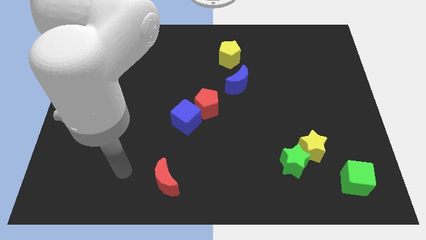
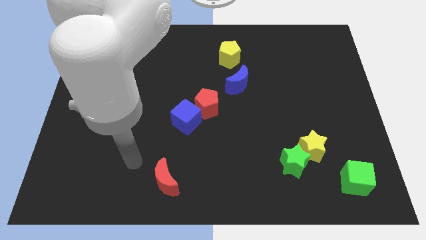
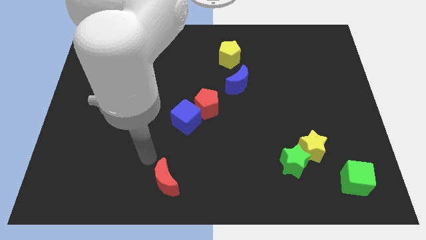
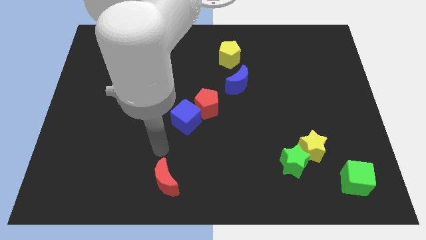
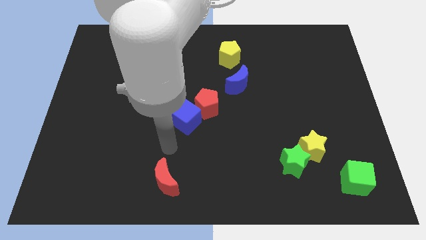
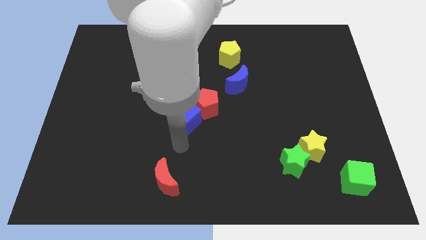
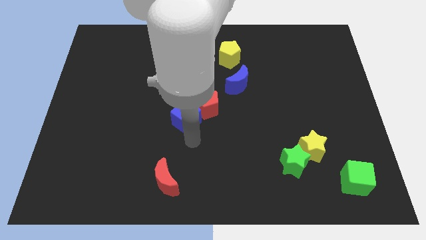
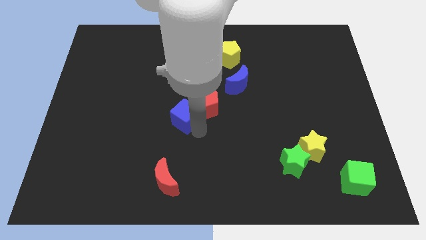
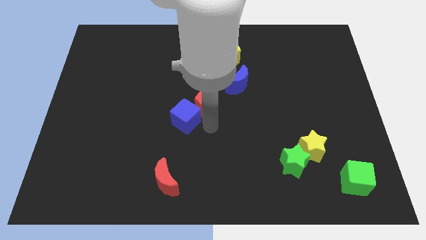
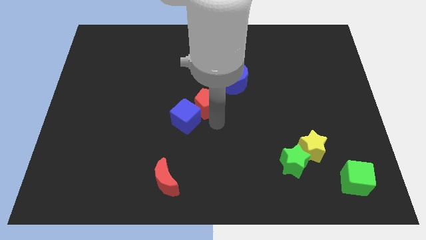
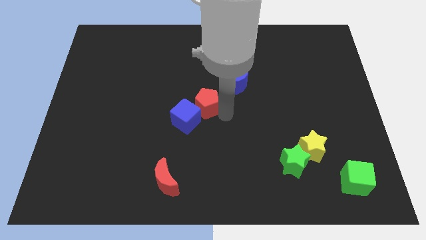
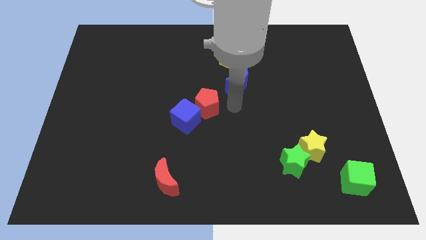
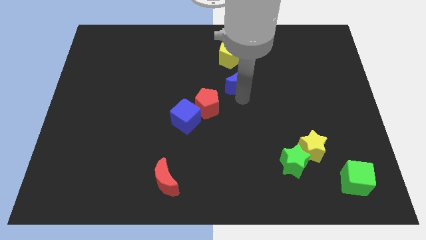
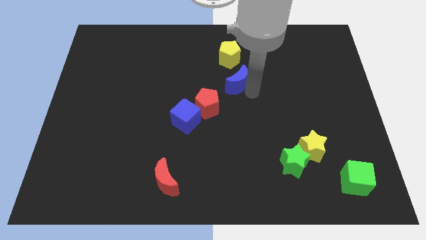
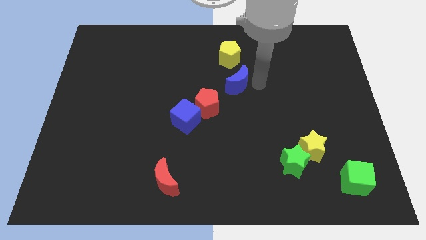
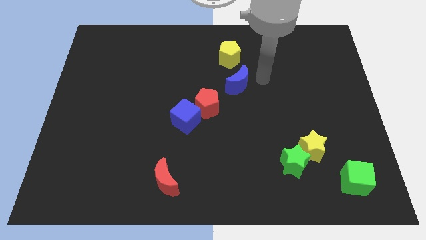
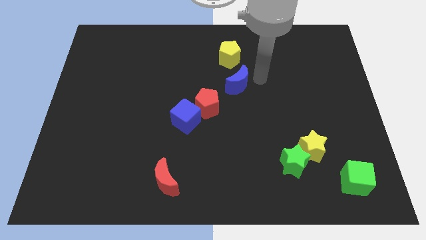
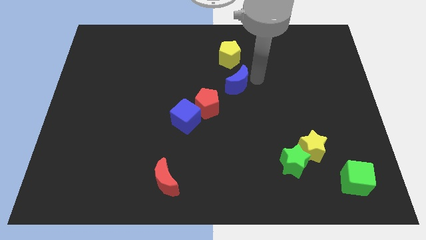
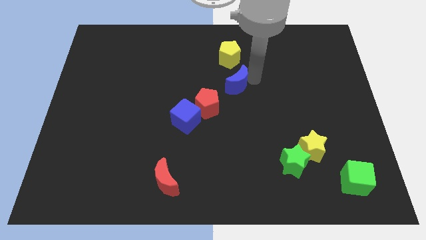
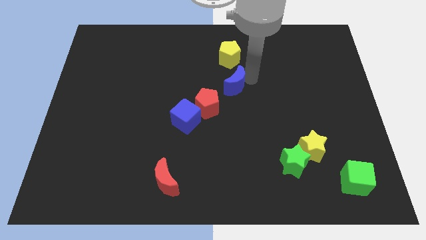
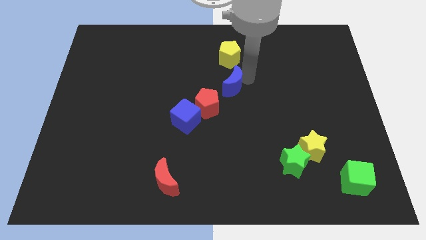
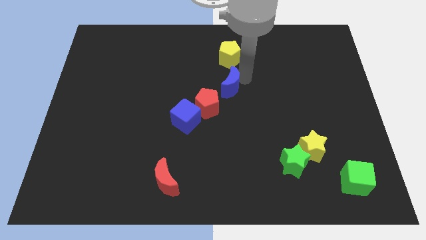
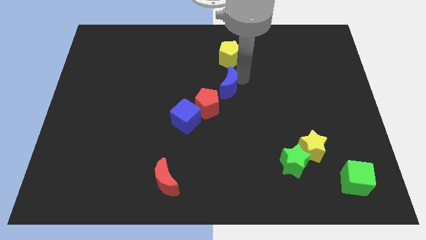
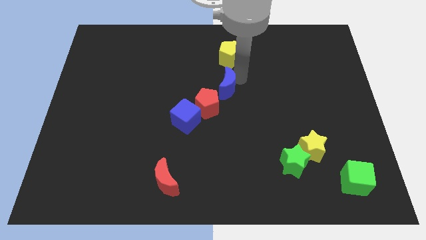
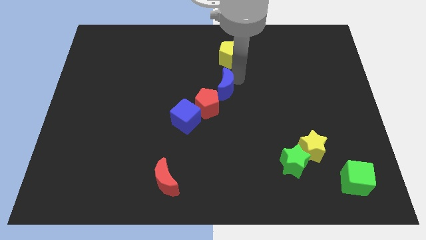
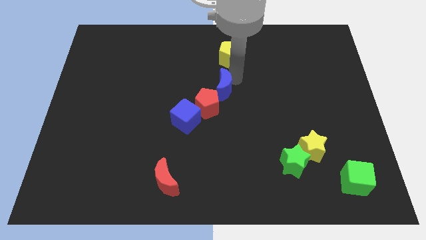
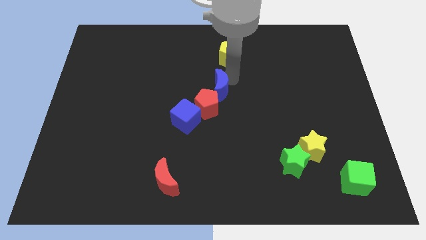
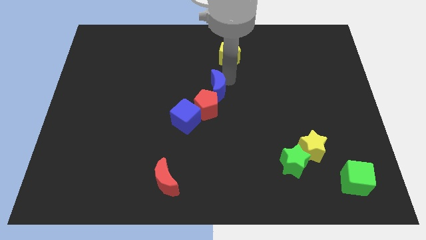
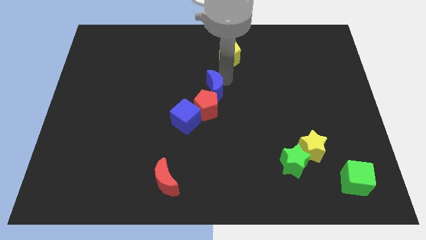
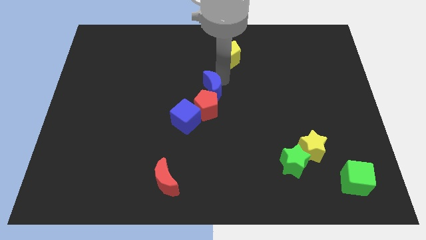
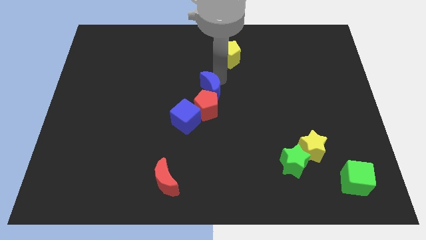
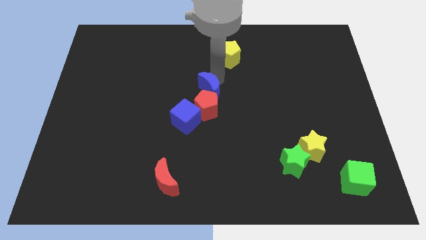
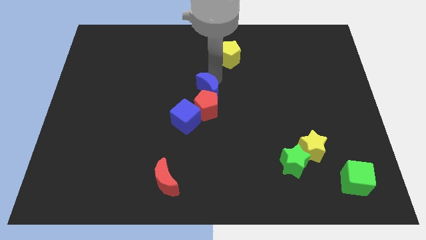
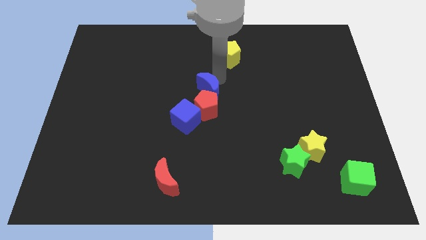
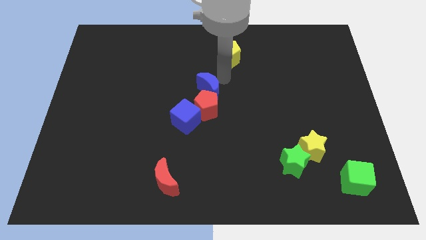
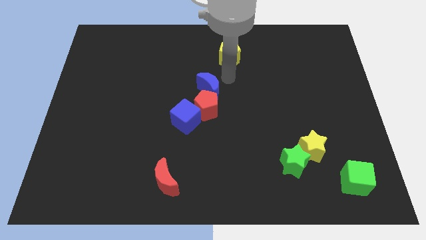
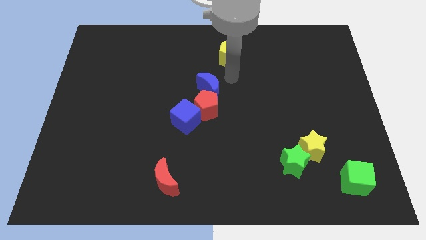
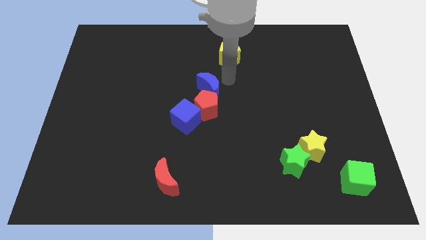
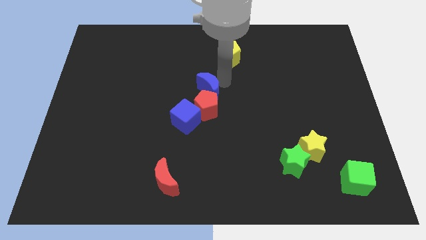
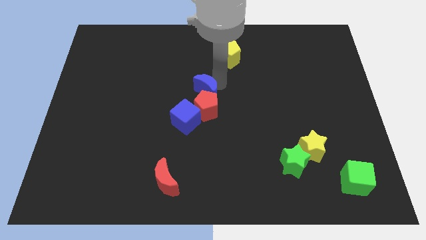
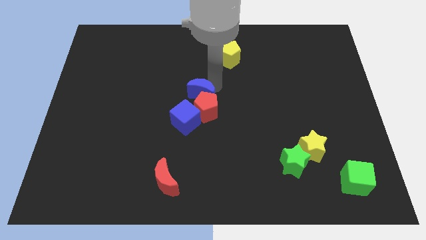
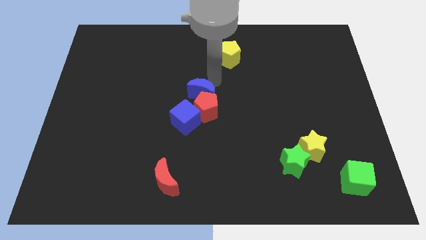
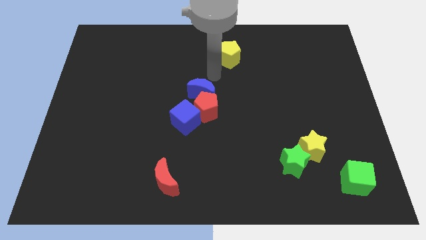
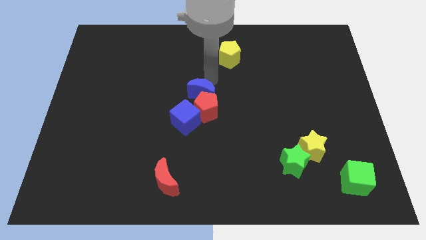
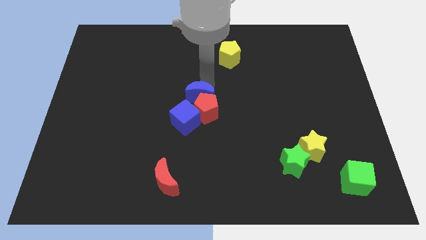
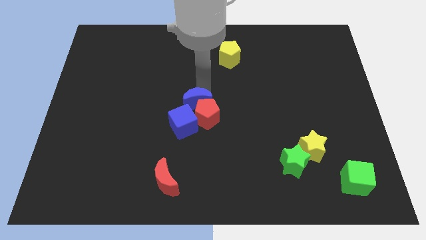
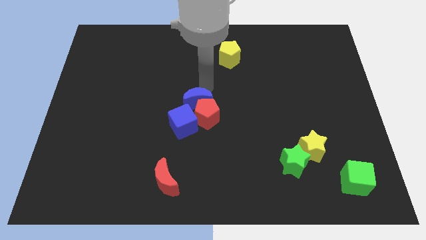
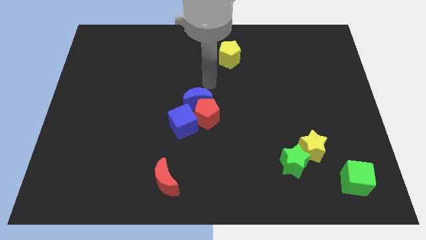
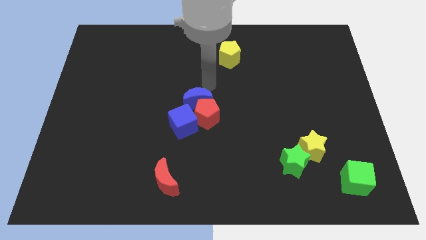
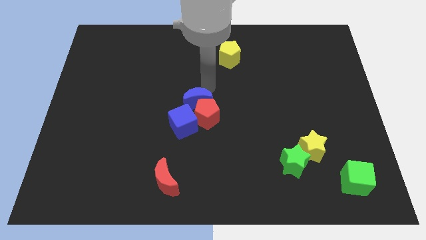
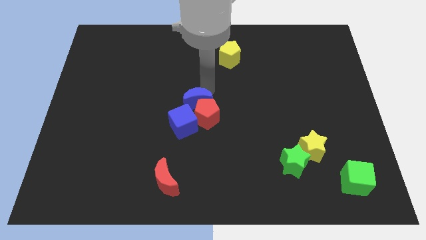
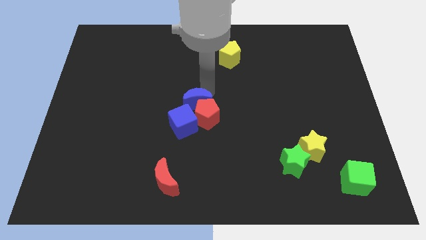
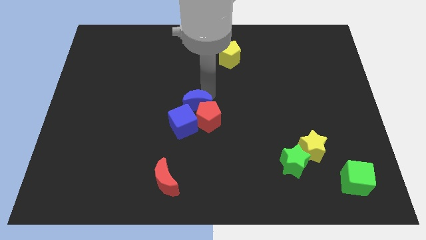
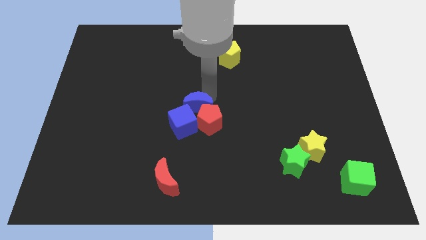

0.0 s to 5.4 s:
slide the blue moon next to the blue cube

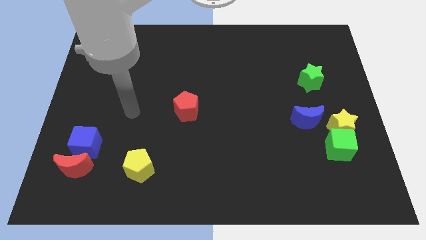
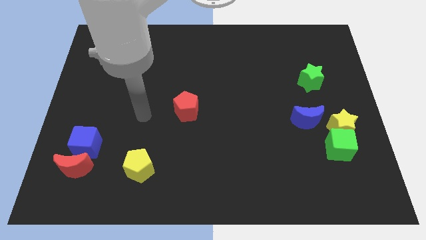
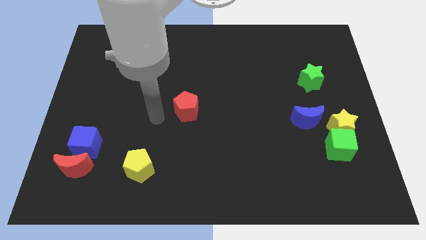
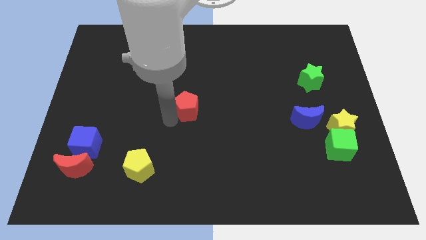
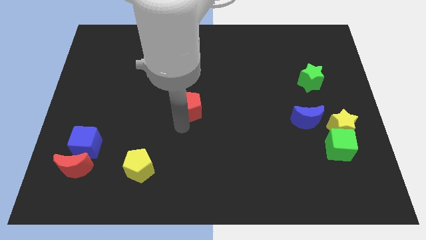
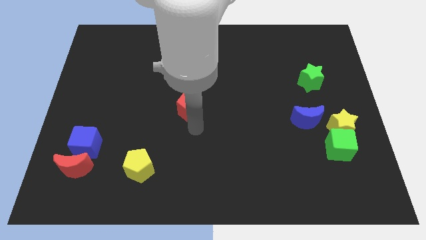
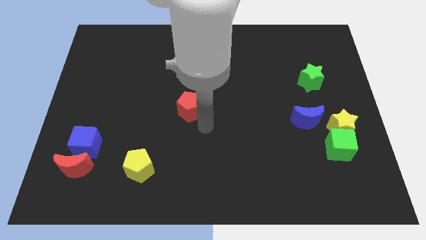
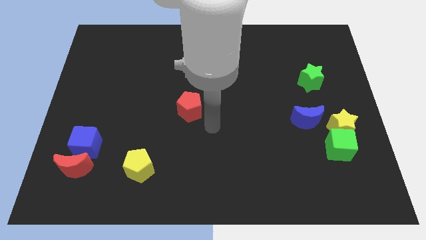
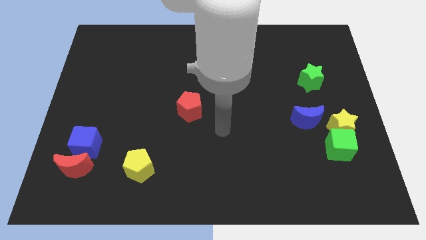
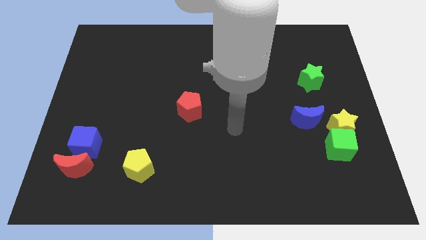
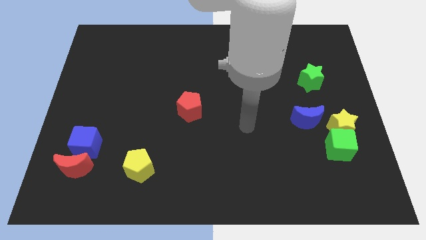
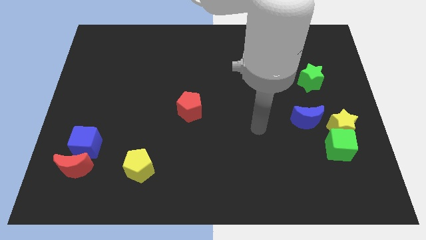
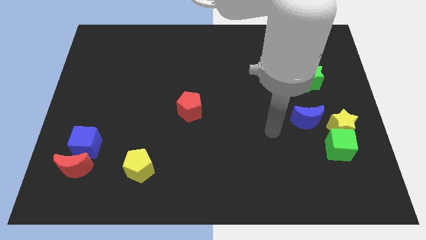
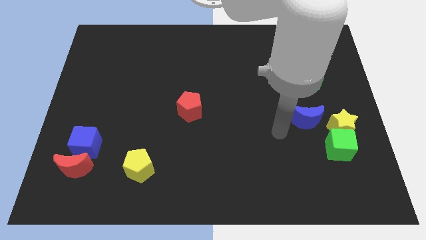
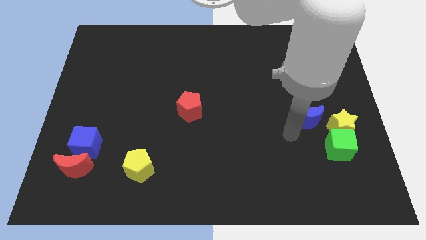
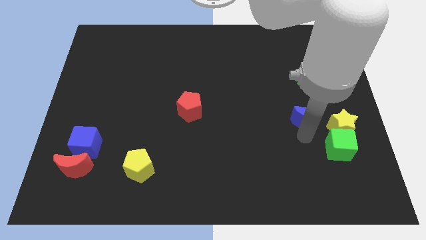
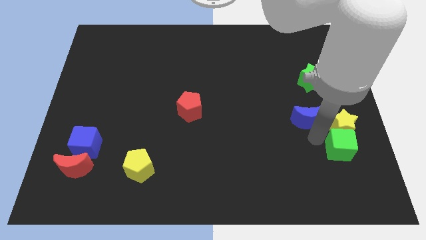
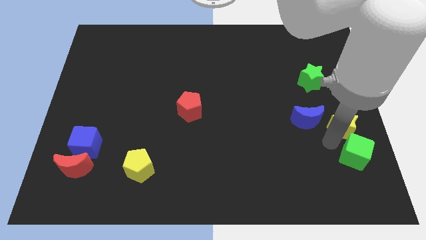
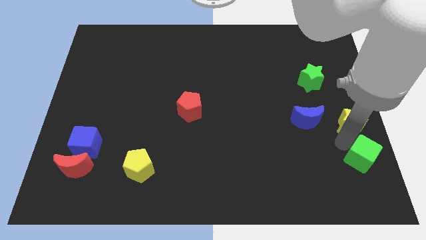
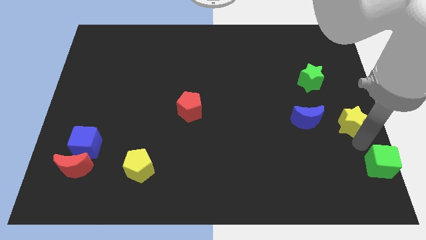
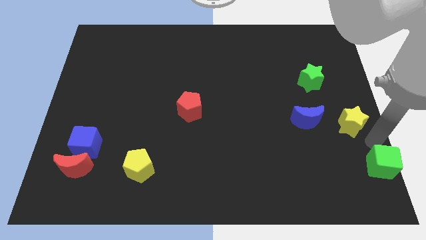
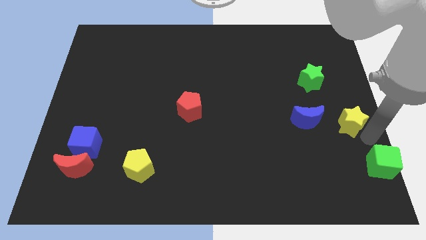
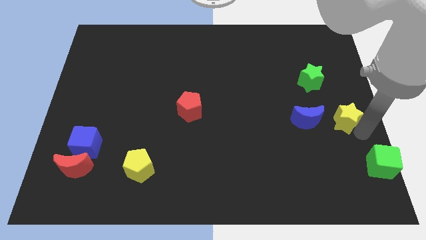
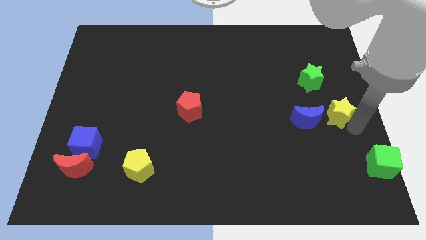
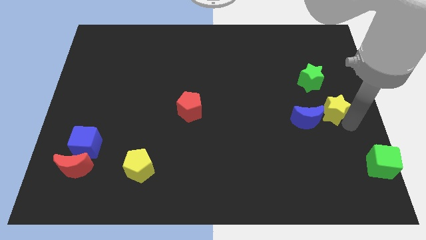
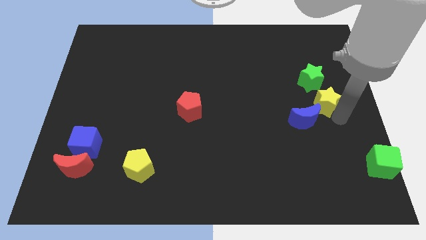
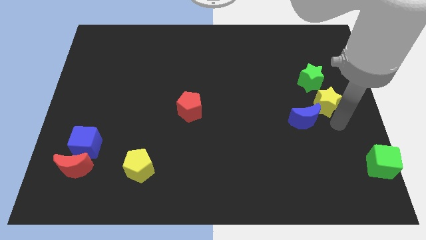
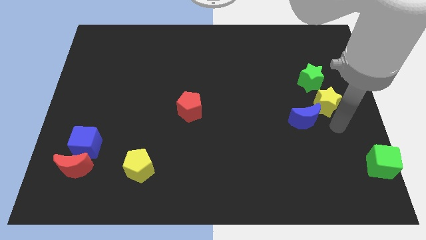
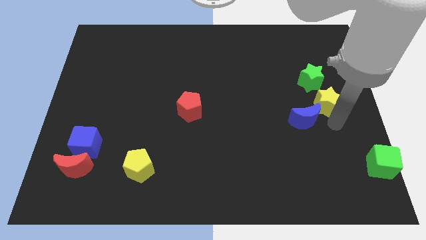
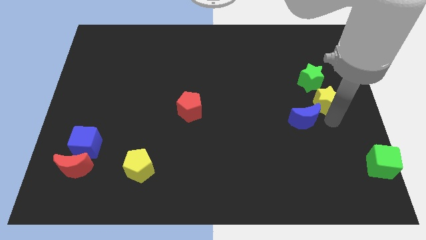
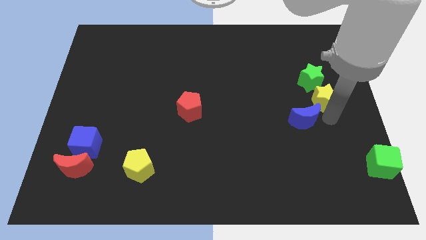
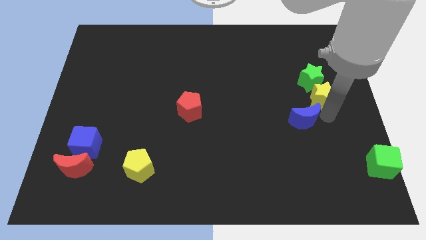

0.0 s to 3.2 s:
slide the yellow star next to the green star
